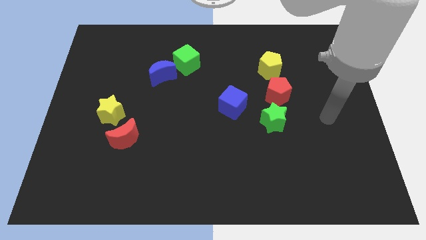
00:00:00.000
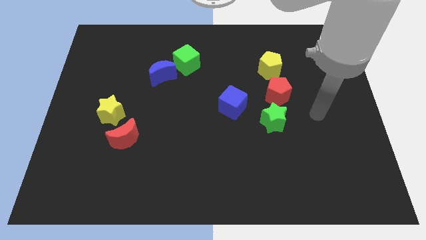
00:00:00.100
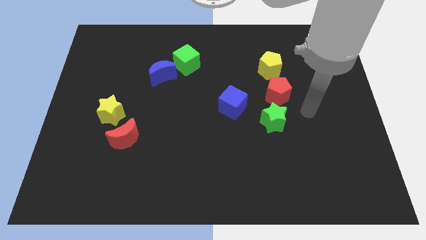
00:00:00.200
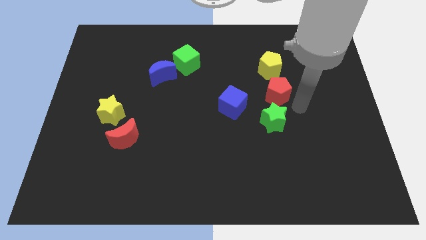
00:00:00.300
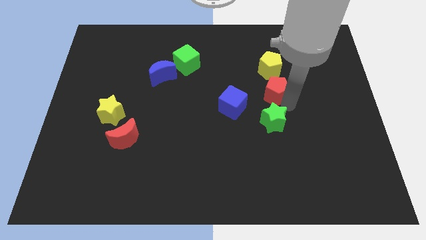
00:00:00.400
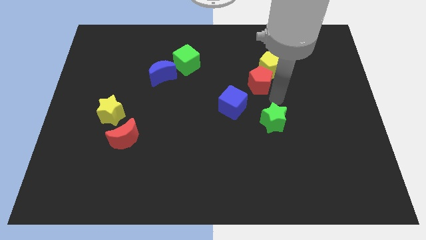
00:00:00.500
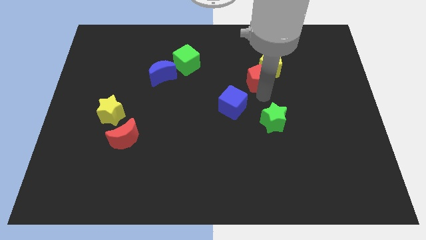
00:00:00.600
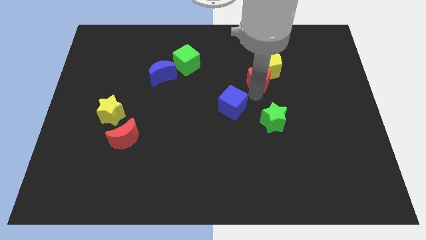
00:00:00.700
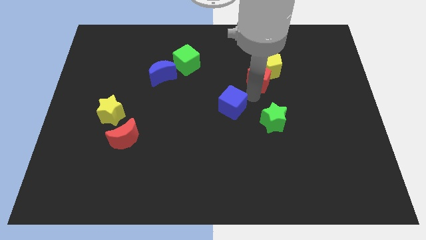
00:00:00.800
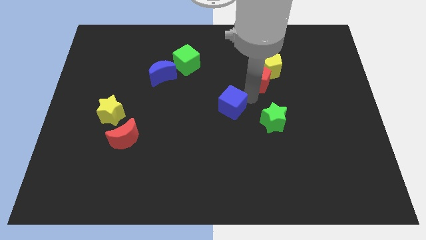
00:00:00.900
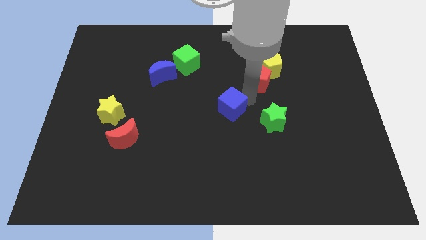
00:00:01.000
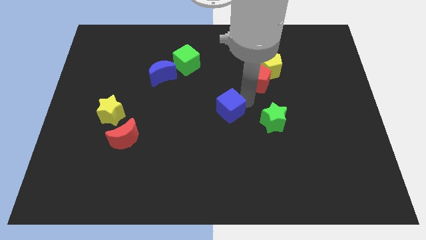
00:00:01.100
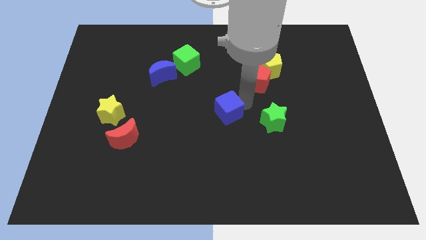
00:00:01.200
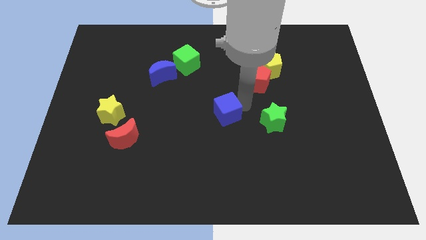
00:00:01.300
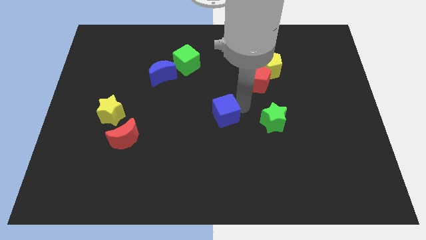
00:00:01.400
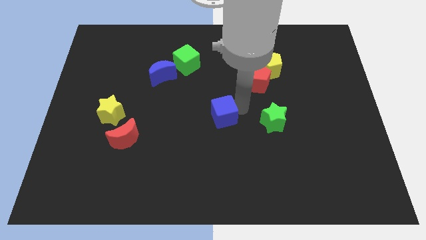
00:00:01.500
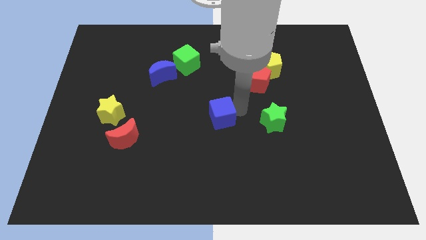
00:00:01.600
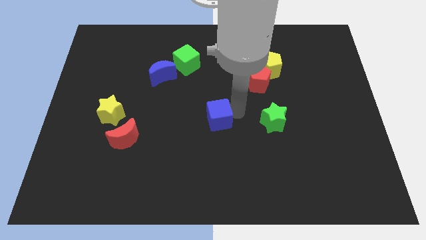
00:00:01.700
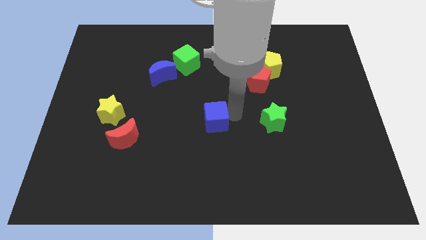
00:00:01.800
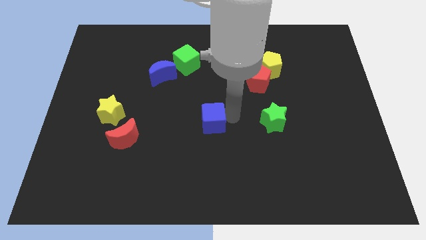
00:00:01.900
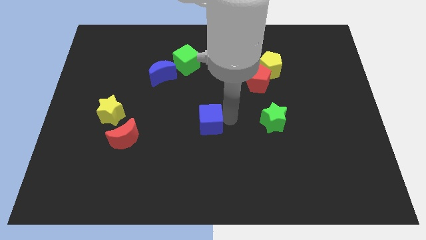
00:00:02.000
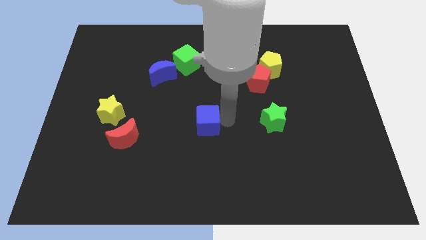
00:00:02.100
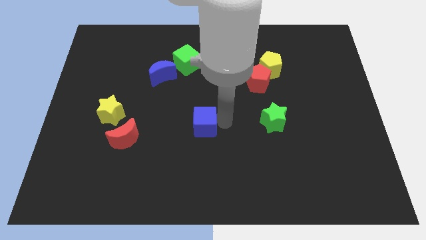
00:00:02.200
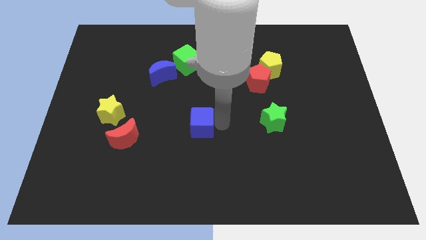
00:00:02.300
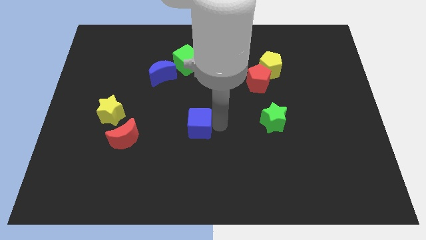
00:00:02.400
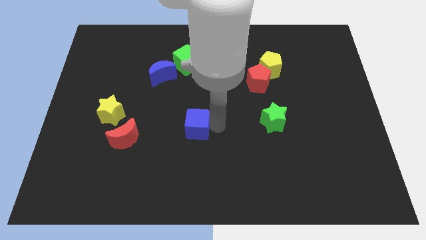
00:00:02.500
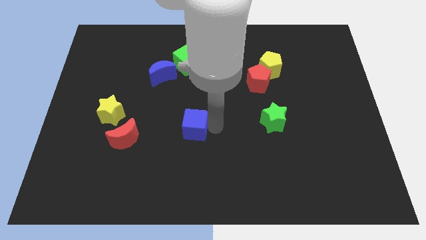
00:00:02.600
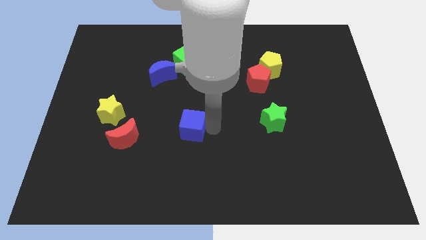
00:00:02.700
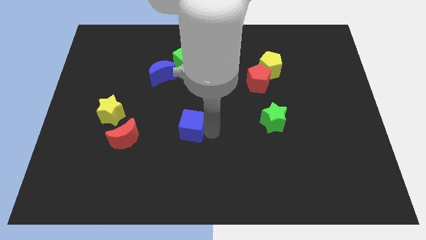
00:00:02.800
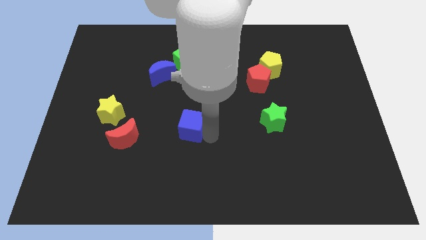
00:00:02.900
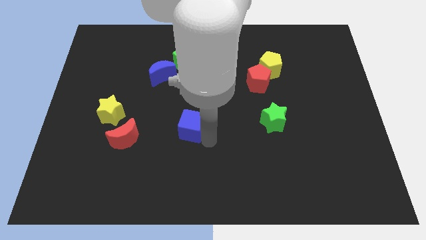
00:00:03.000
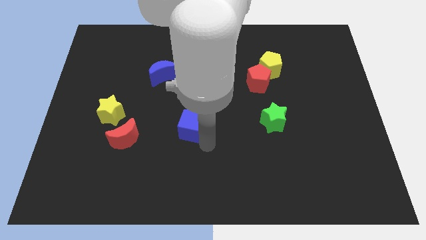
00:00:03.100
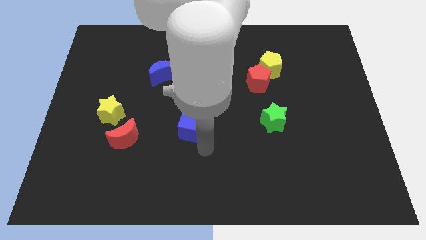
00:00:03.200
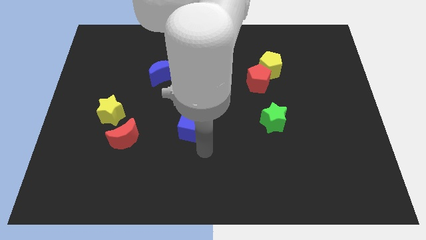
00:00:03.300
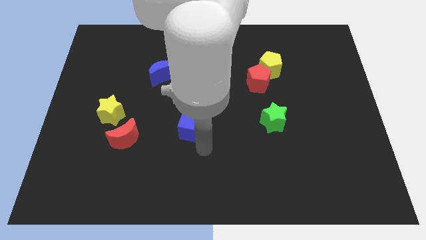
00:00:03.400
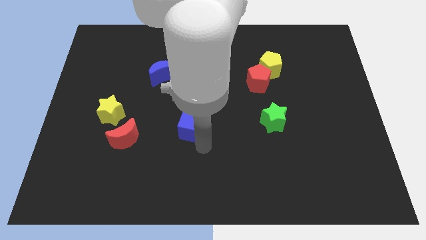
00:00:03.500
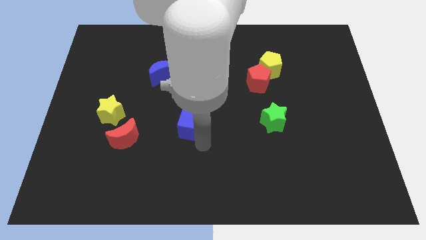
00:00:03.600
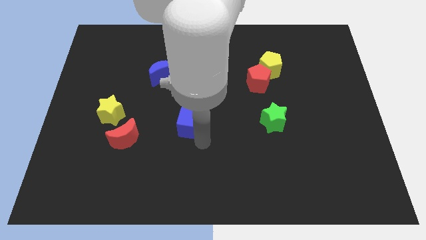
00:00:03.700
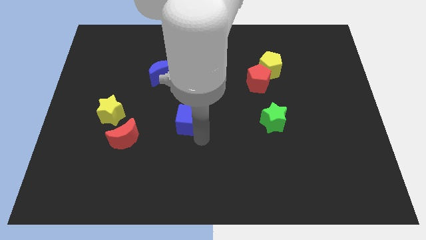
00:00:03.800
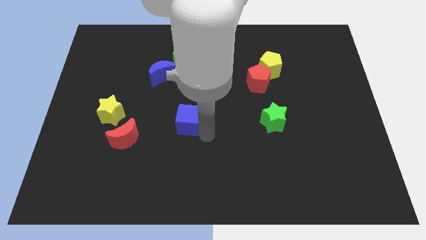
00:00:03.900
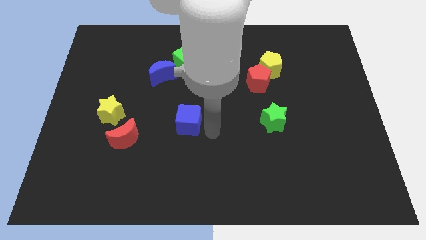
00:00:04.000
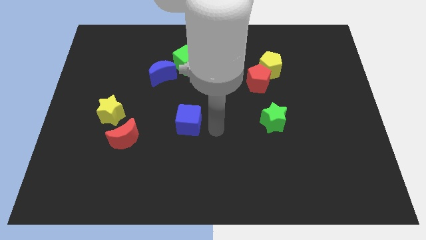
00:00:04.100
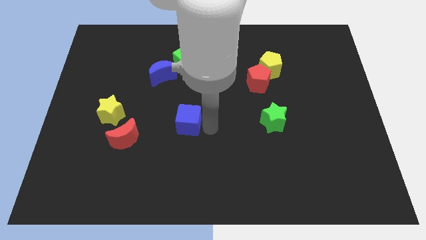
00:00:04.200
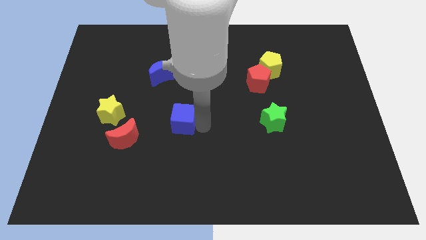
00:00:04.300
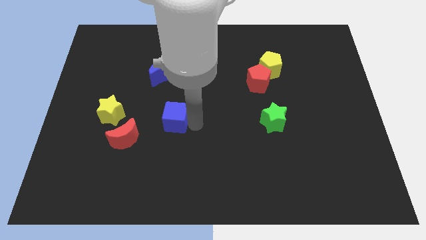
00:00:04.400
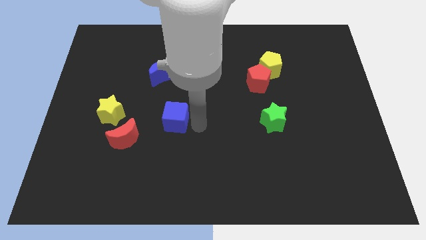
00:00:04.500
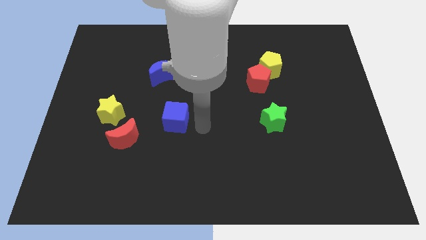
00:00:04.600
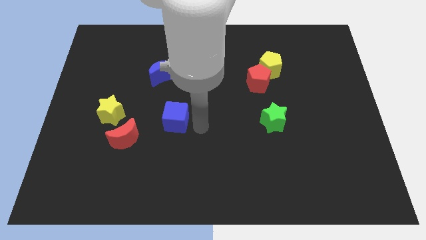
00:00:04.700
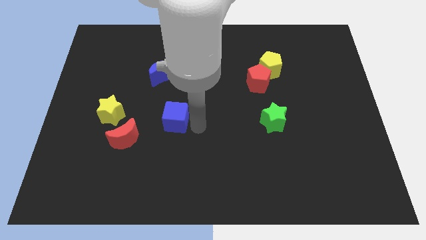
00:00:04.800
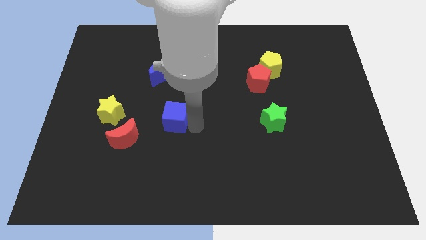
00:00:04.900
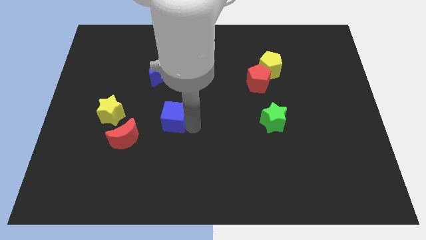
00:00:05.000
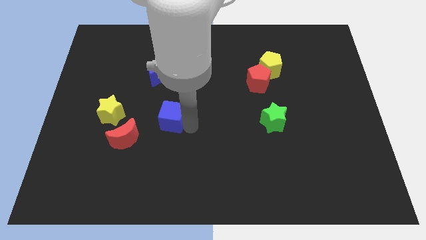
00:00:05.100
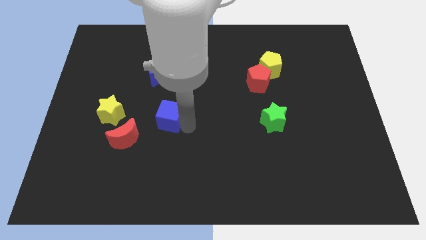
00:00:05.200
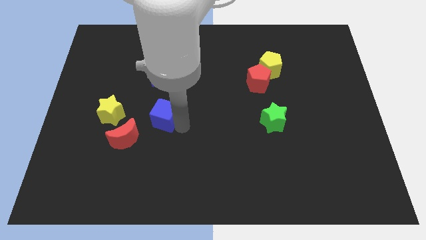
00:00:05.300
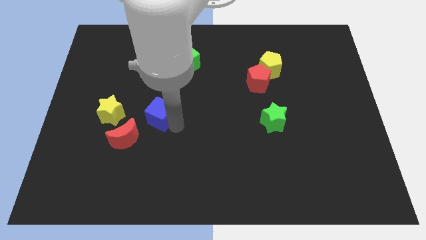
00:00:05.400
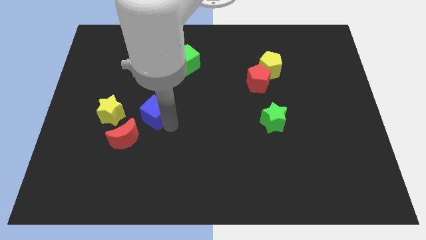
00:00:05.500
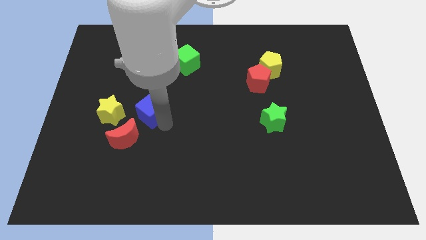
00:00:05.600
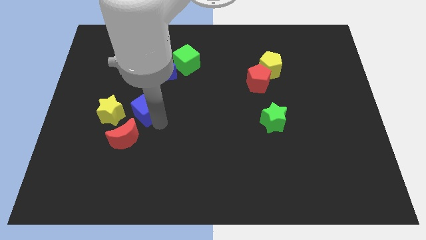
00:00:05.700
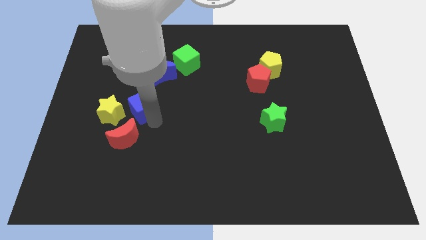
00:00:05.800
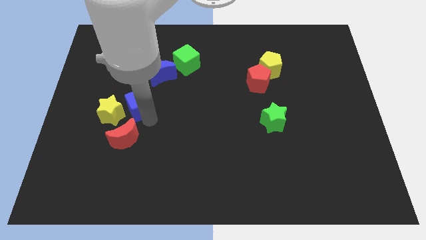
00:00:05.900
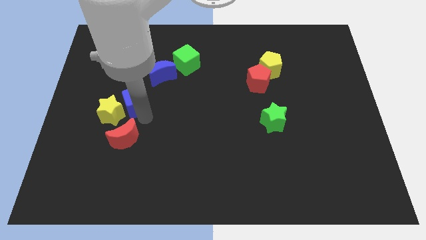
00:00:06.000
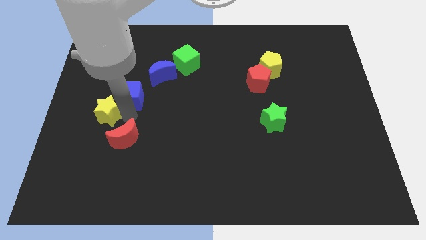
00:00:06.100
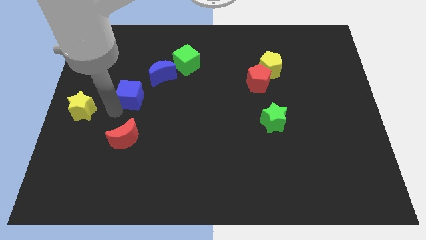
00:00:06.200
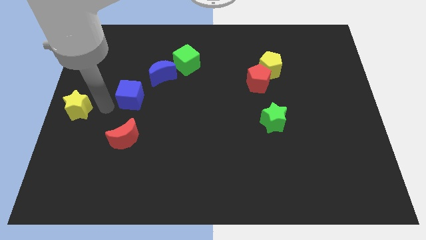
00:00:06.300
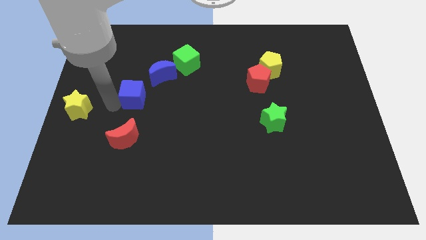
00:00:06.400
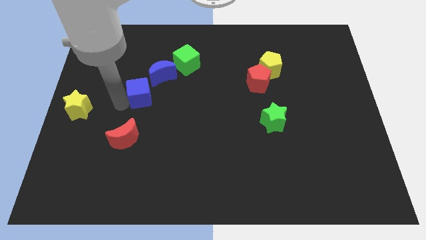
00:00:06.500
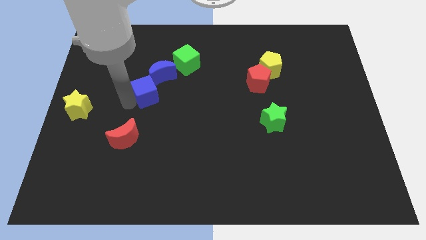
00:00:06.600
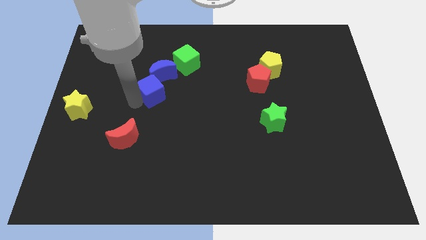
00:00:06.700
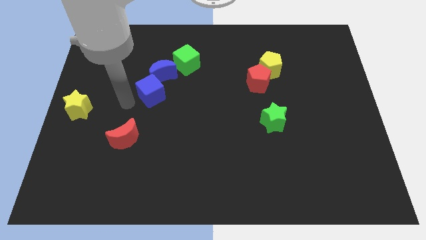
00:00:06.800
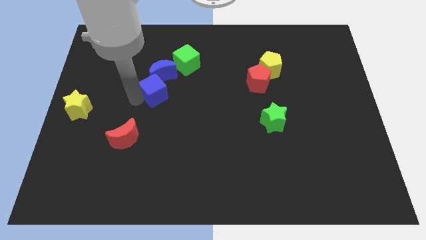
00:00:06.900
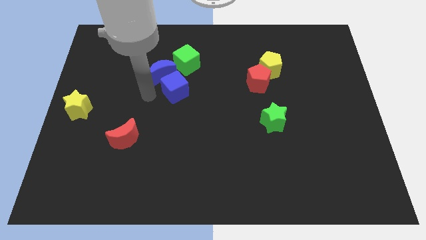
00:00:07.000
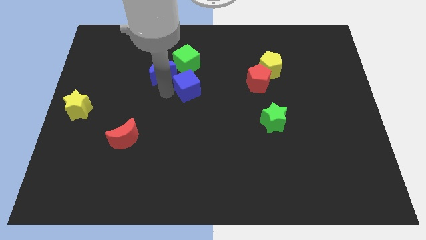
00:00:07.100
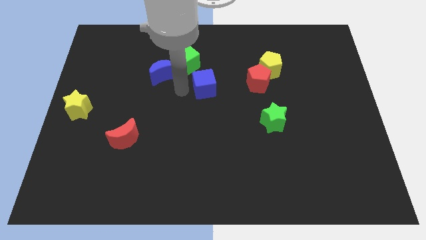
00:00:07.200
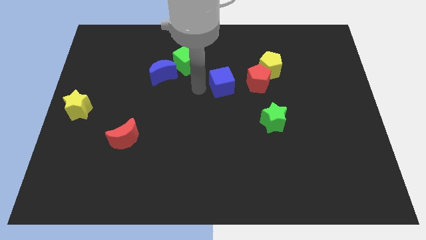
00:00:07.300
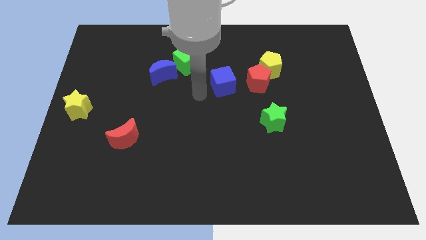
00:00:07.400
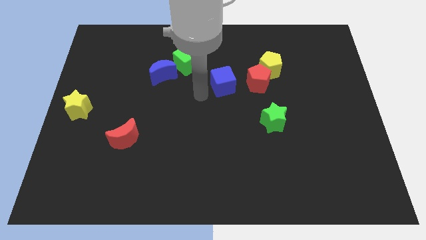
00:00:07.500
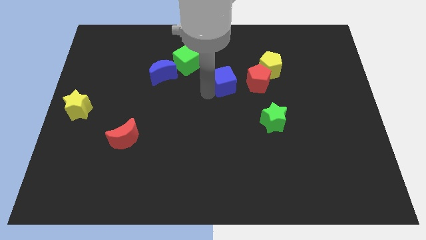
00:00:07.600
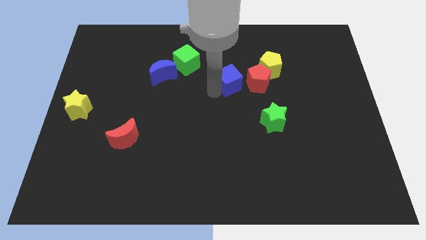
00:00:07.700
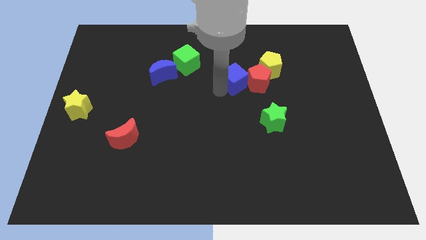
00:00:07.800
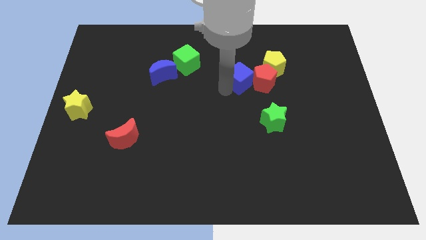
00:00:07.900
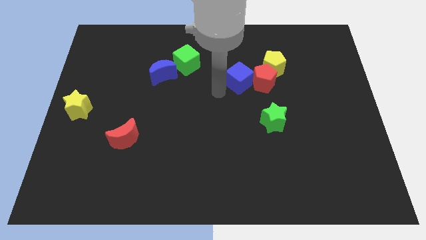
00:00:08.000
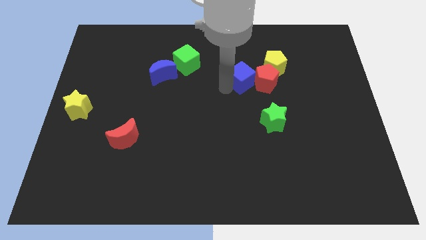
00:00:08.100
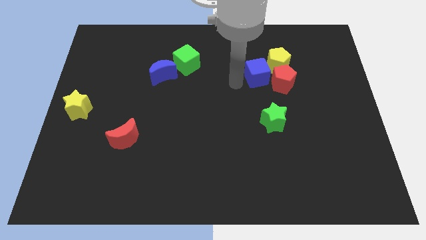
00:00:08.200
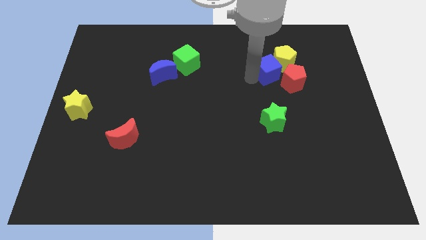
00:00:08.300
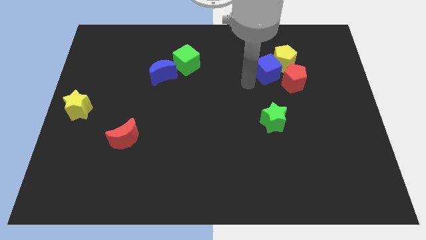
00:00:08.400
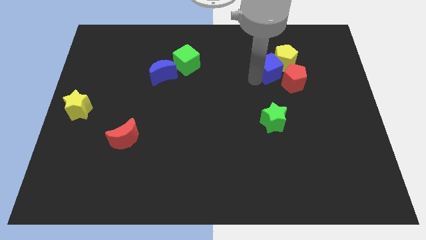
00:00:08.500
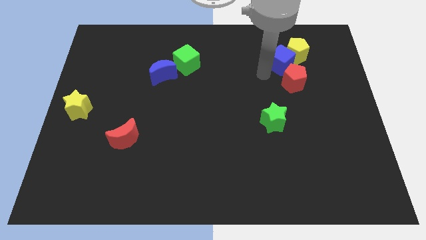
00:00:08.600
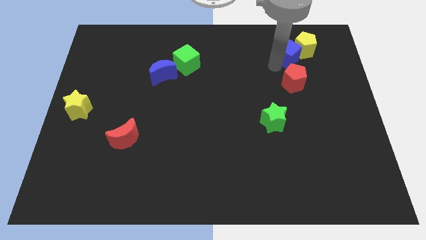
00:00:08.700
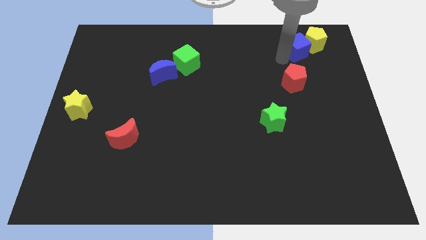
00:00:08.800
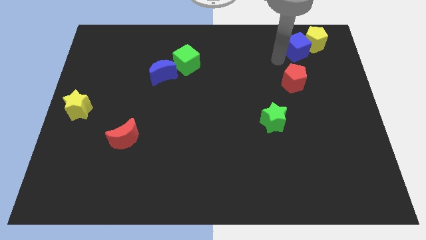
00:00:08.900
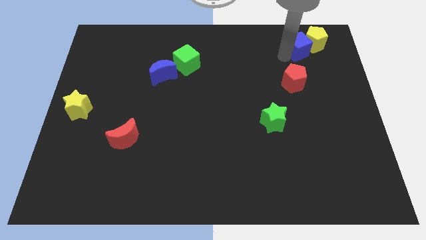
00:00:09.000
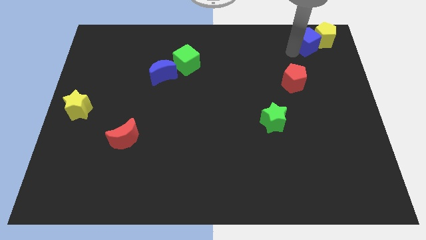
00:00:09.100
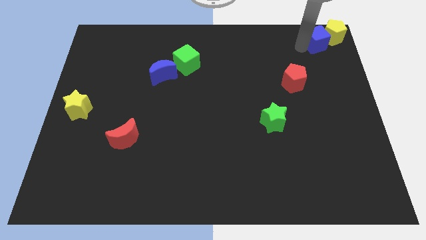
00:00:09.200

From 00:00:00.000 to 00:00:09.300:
push the blue cube to the top right corner
